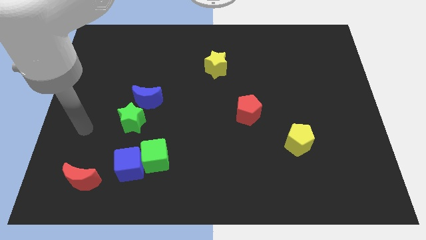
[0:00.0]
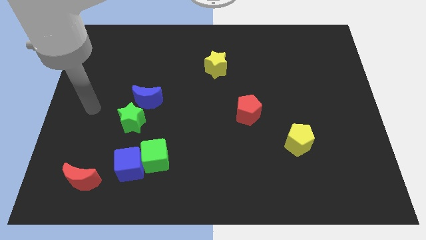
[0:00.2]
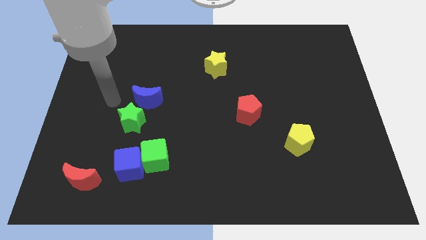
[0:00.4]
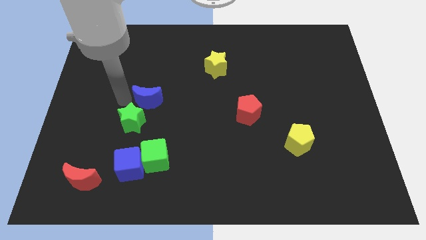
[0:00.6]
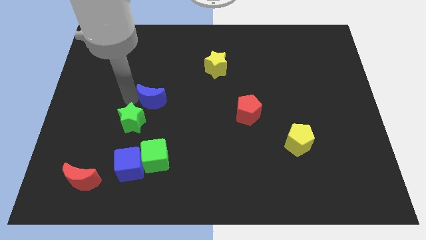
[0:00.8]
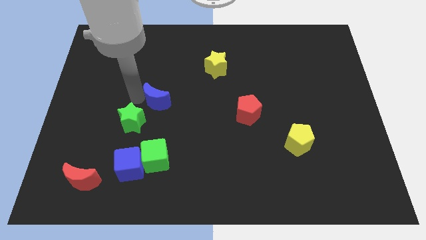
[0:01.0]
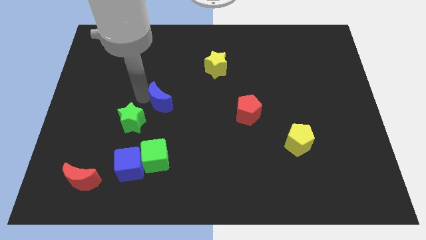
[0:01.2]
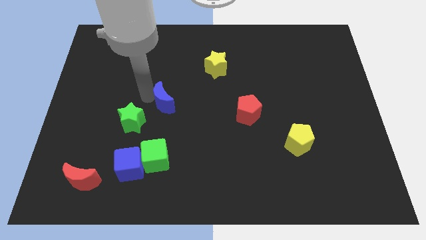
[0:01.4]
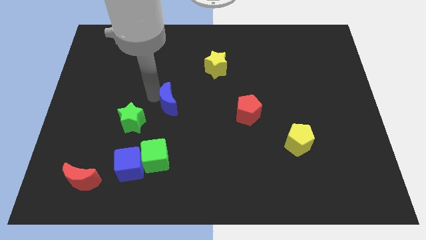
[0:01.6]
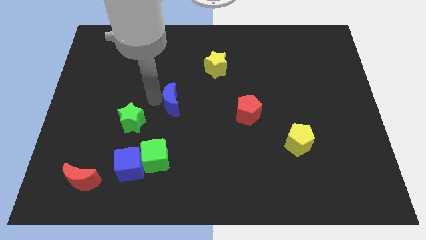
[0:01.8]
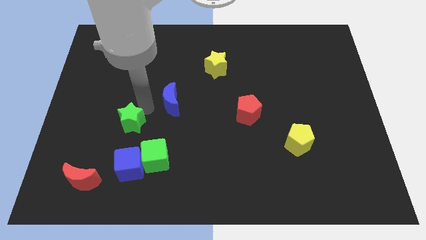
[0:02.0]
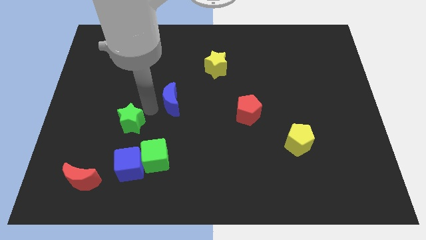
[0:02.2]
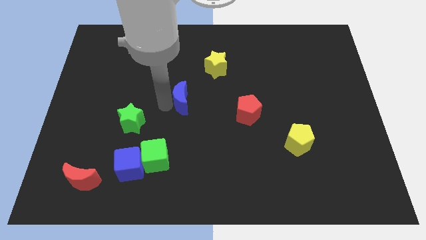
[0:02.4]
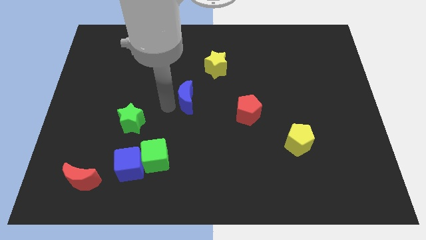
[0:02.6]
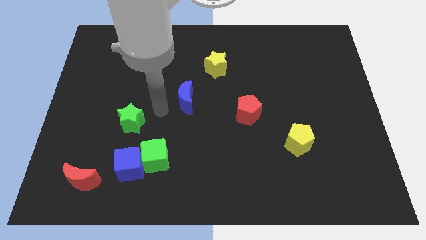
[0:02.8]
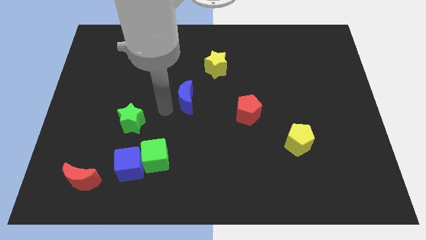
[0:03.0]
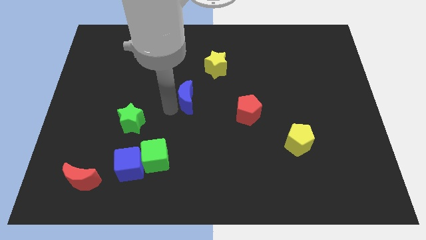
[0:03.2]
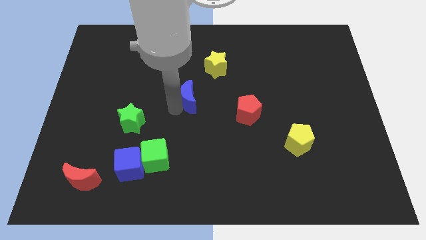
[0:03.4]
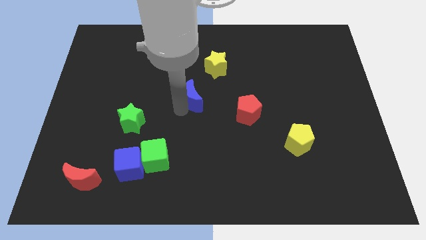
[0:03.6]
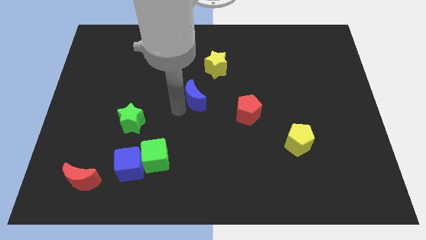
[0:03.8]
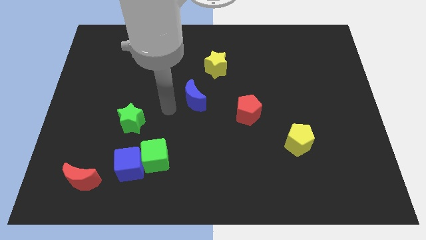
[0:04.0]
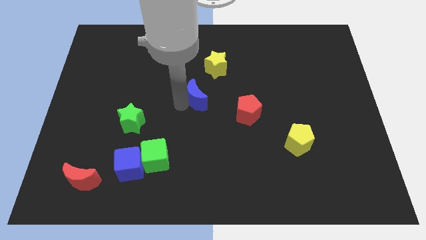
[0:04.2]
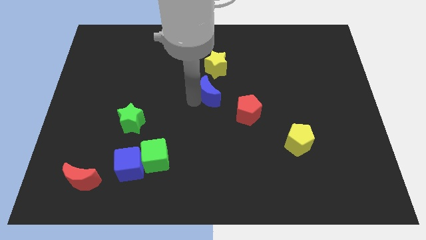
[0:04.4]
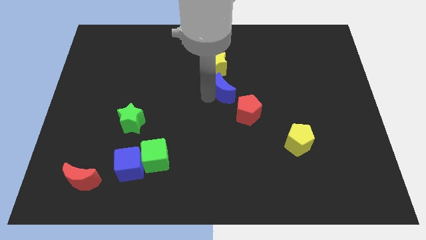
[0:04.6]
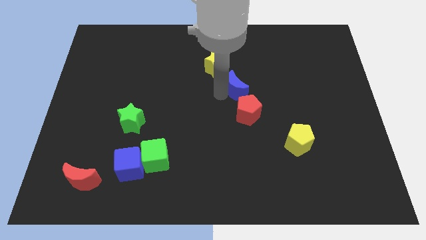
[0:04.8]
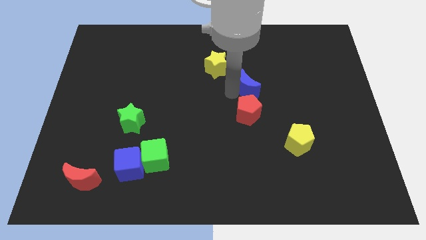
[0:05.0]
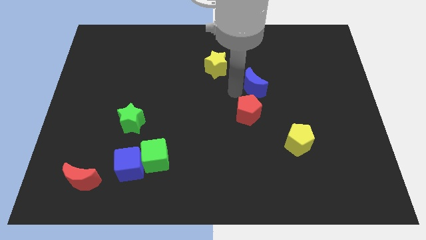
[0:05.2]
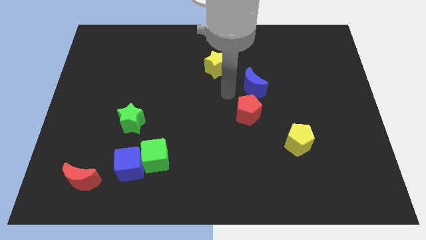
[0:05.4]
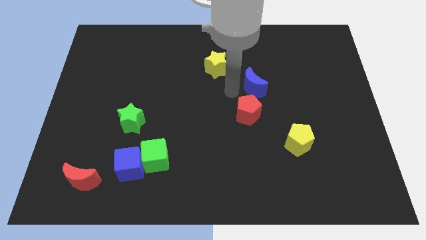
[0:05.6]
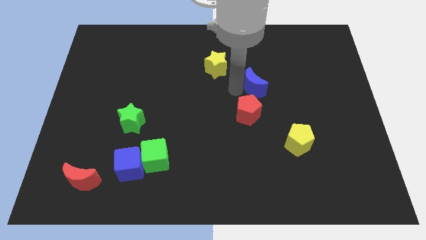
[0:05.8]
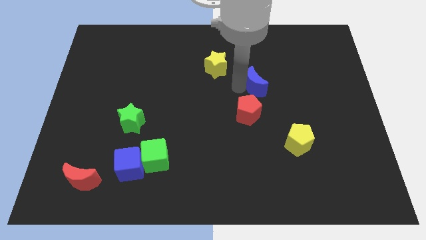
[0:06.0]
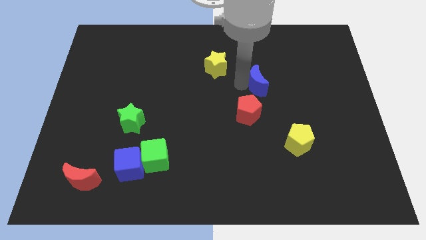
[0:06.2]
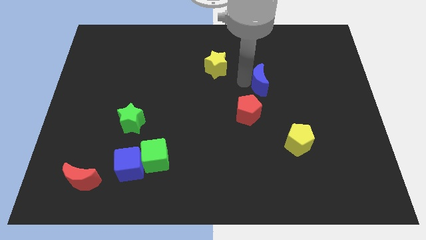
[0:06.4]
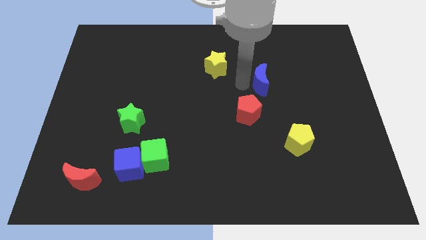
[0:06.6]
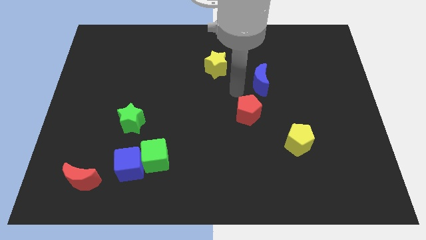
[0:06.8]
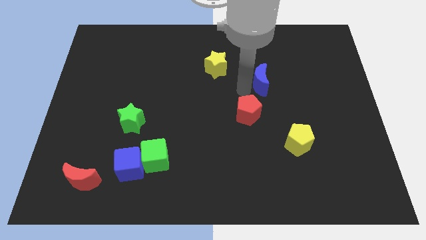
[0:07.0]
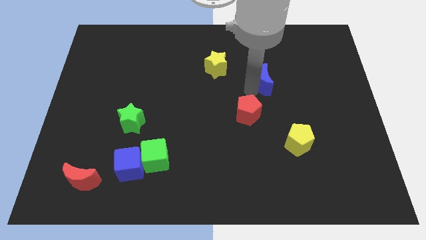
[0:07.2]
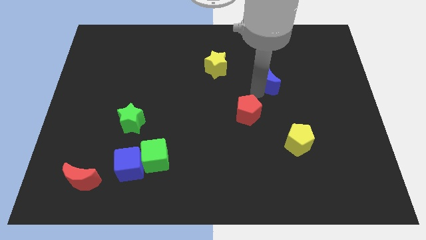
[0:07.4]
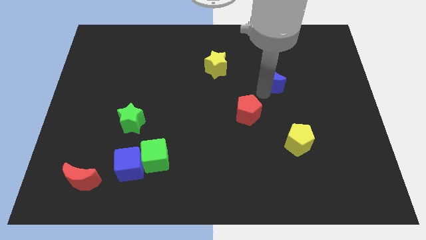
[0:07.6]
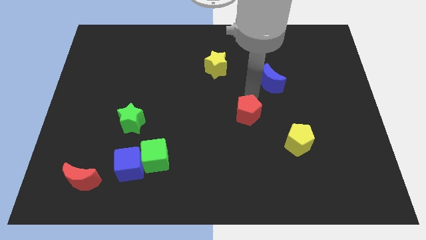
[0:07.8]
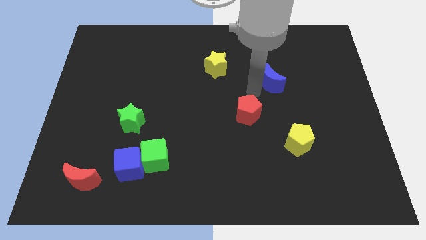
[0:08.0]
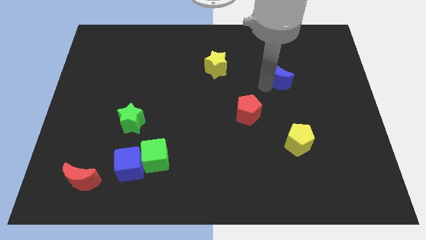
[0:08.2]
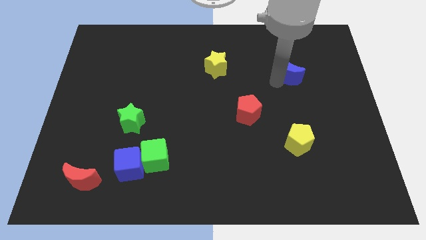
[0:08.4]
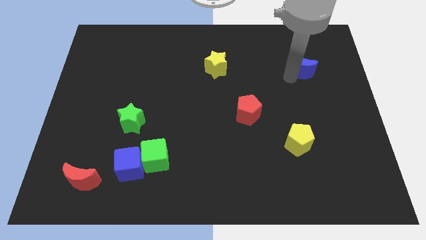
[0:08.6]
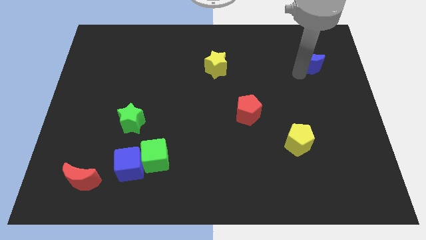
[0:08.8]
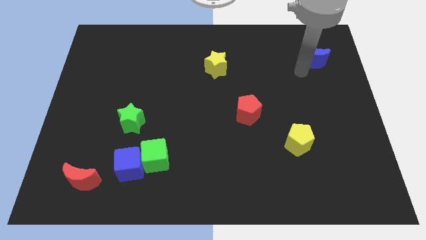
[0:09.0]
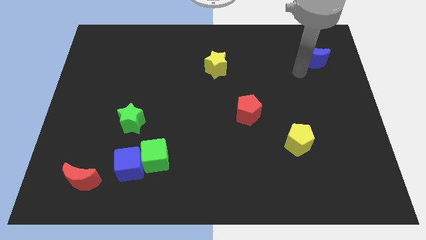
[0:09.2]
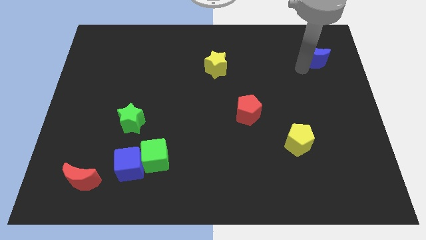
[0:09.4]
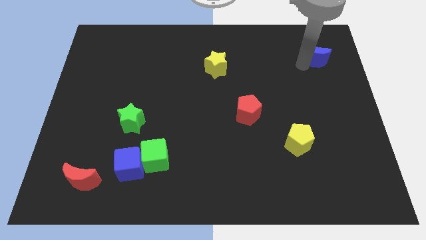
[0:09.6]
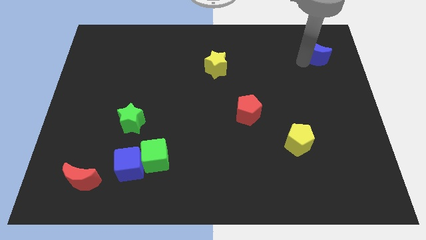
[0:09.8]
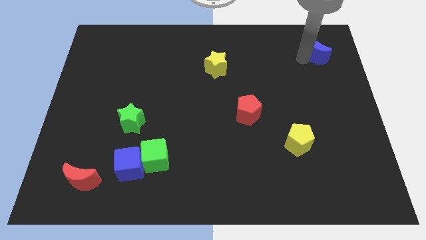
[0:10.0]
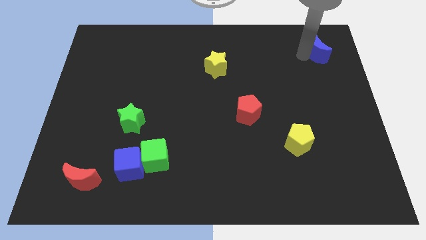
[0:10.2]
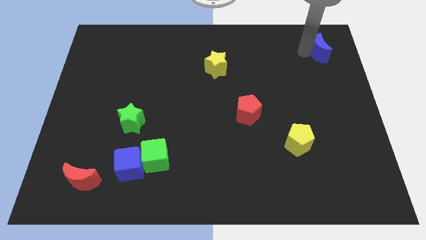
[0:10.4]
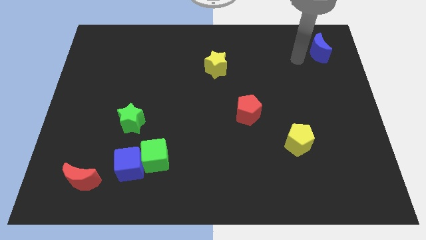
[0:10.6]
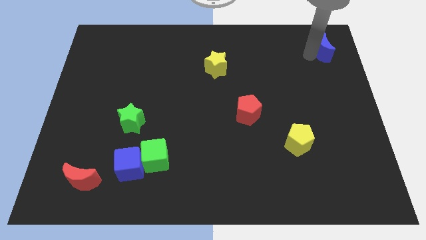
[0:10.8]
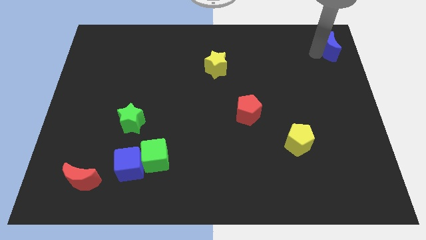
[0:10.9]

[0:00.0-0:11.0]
put the blue moon to the upper right corner

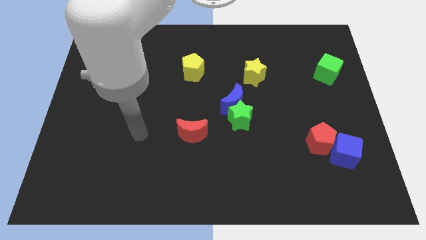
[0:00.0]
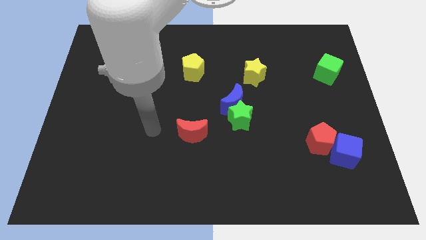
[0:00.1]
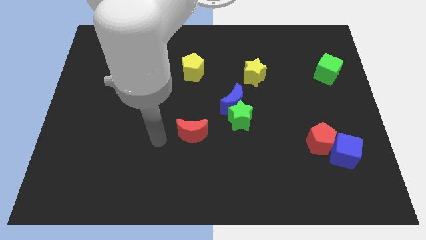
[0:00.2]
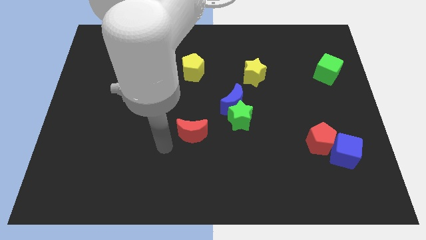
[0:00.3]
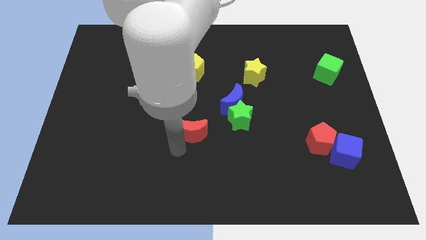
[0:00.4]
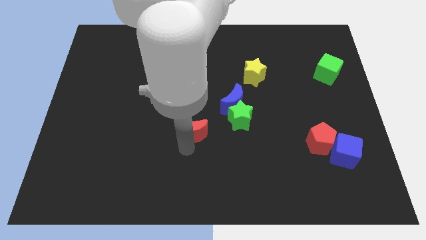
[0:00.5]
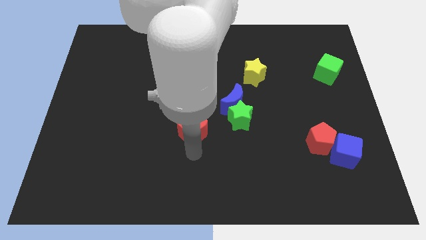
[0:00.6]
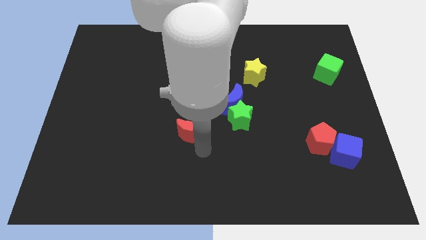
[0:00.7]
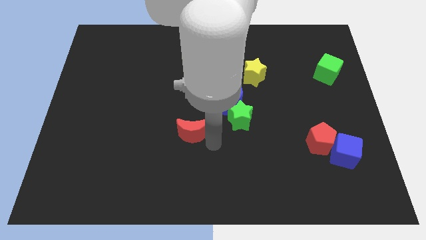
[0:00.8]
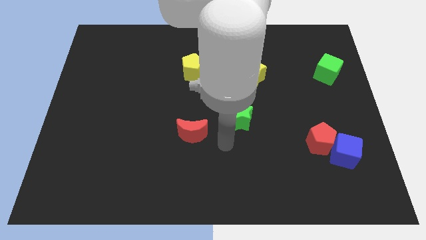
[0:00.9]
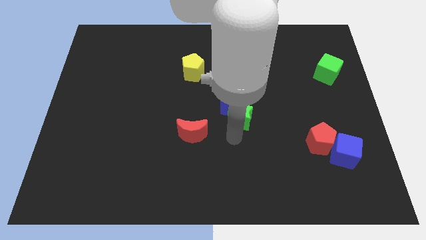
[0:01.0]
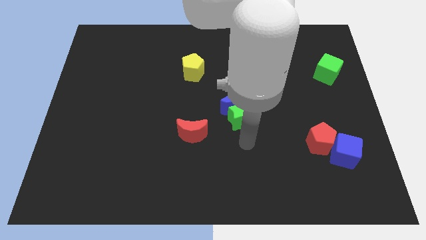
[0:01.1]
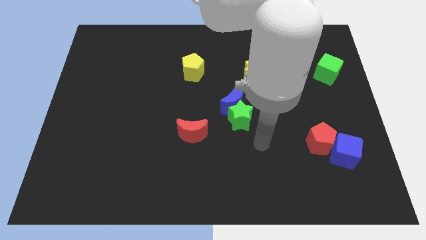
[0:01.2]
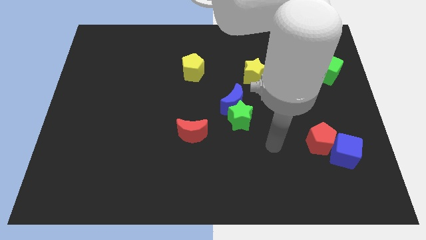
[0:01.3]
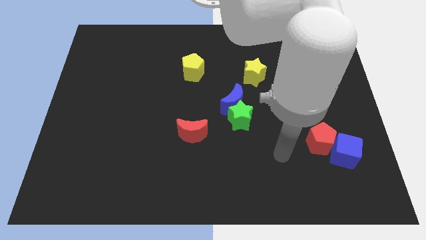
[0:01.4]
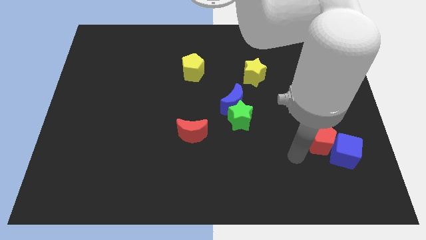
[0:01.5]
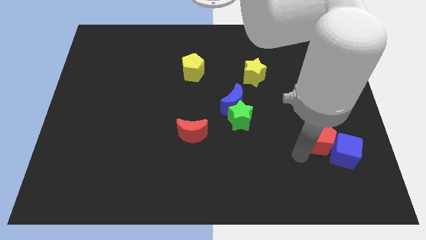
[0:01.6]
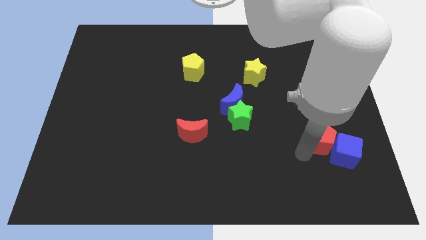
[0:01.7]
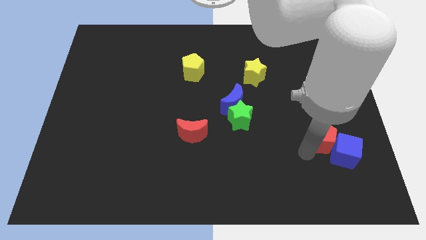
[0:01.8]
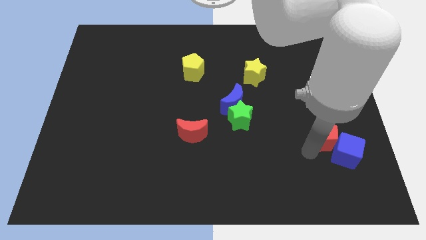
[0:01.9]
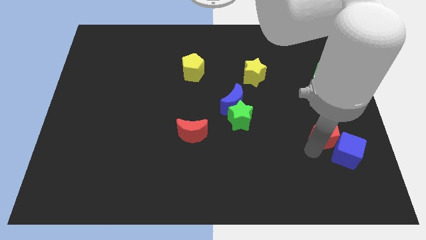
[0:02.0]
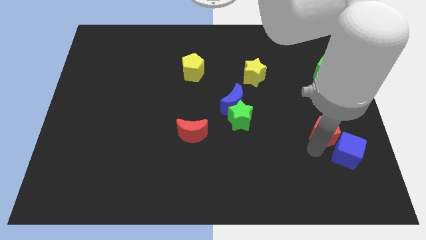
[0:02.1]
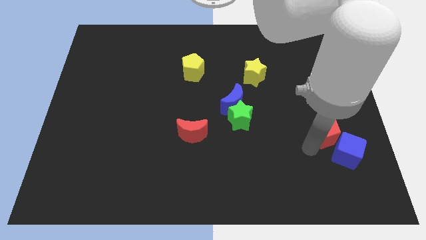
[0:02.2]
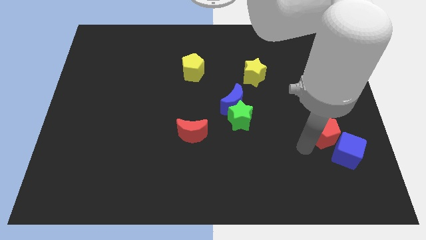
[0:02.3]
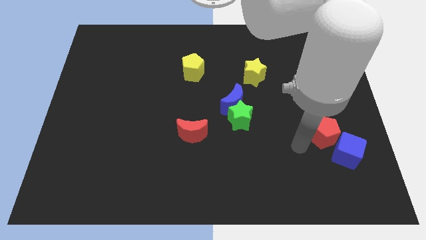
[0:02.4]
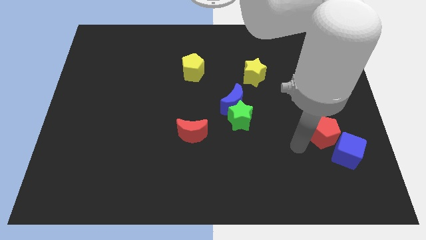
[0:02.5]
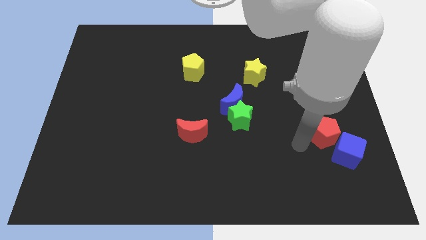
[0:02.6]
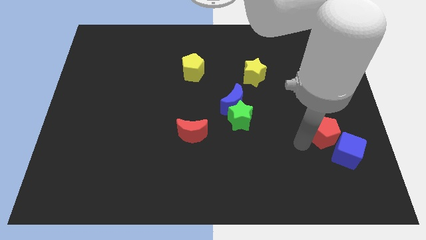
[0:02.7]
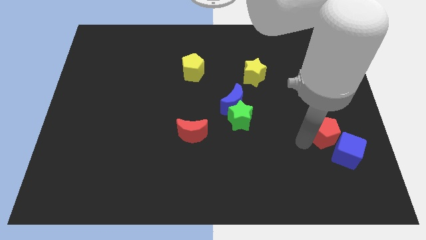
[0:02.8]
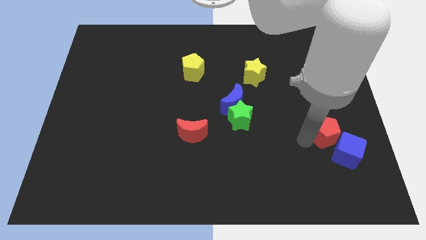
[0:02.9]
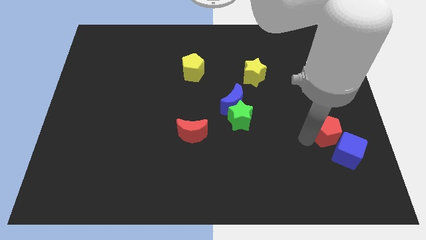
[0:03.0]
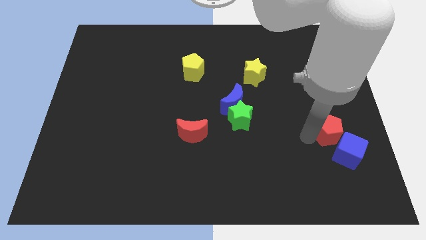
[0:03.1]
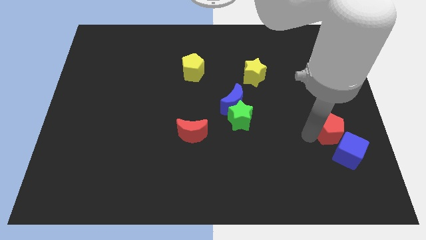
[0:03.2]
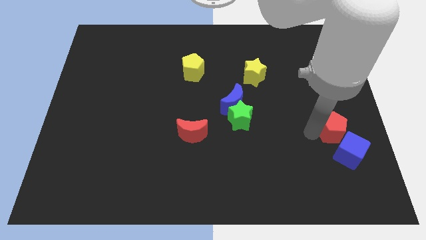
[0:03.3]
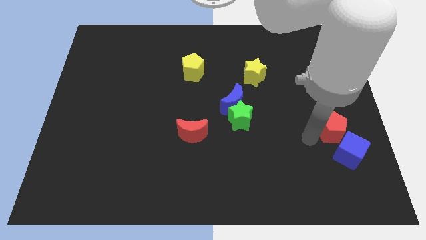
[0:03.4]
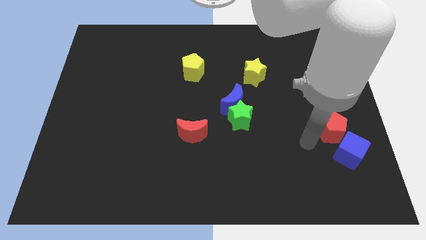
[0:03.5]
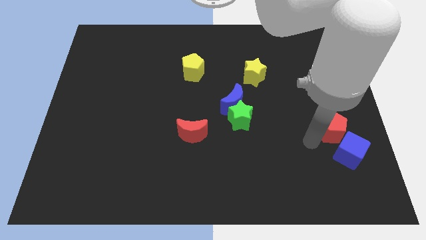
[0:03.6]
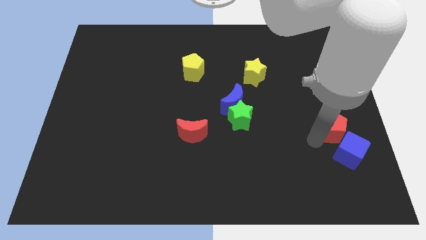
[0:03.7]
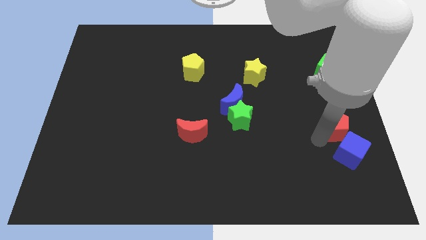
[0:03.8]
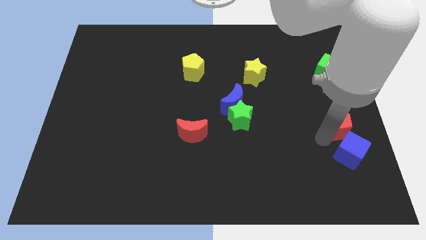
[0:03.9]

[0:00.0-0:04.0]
move the red pentagon to the center right
